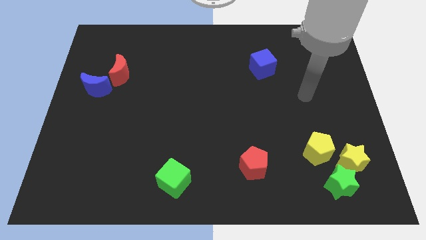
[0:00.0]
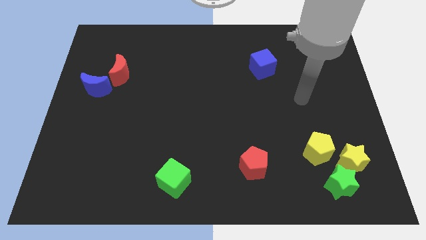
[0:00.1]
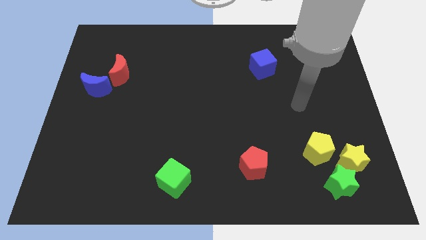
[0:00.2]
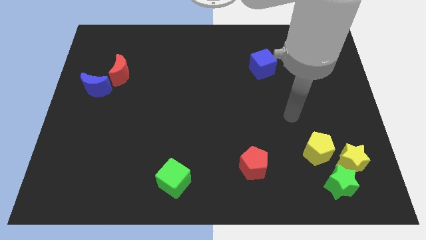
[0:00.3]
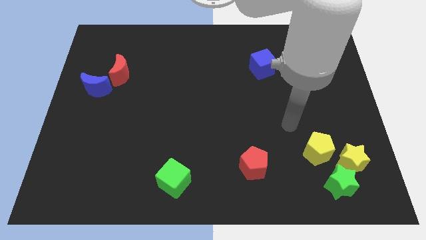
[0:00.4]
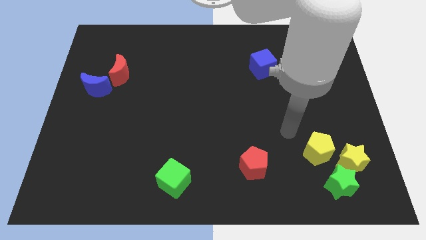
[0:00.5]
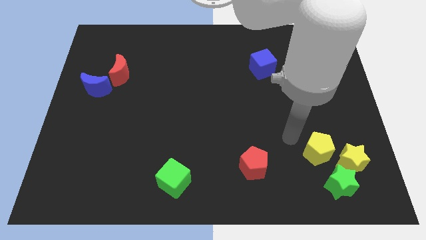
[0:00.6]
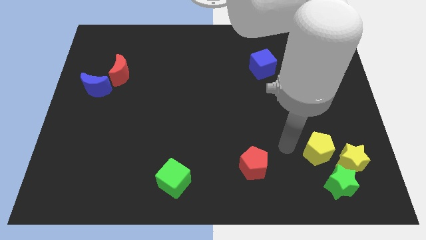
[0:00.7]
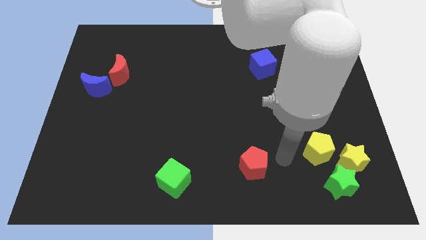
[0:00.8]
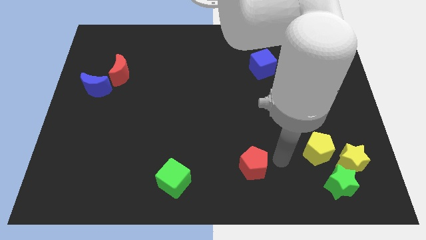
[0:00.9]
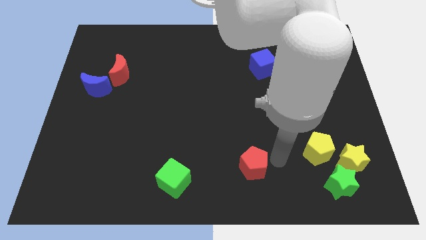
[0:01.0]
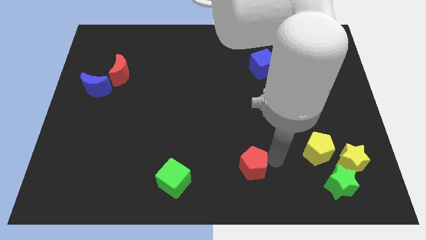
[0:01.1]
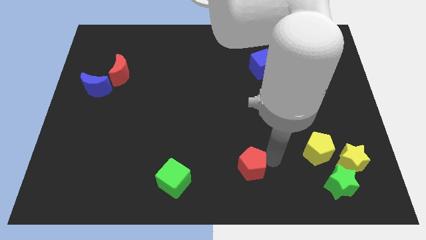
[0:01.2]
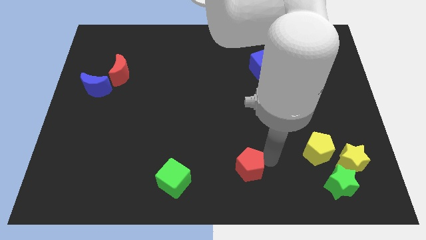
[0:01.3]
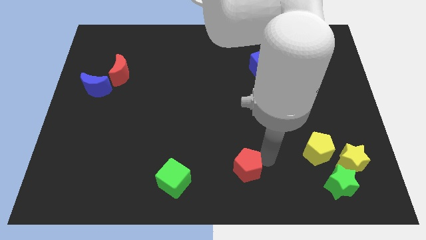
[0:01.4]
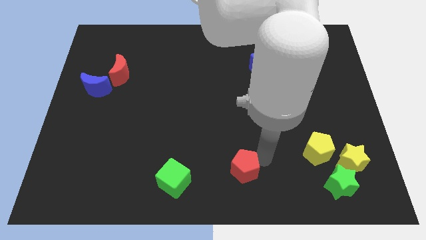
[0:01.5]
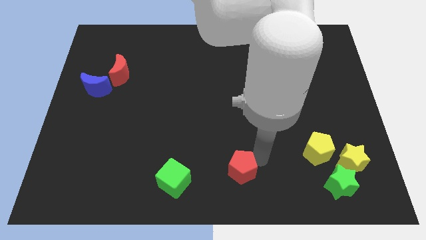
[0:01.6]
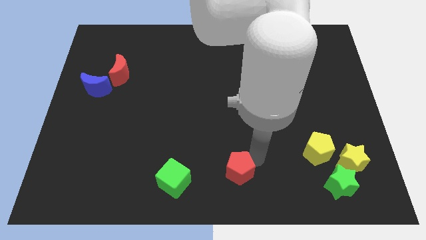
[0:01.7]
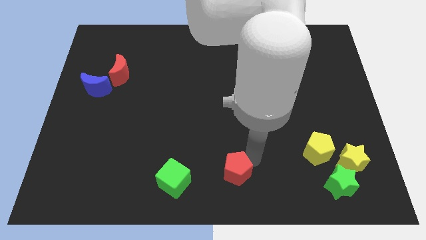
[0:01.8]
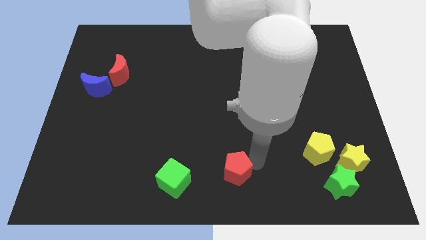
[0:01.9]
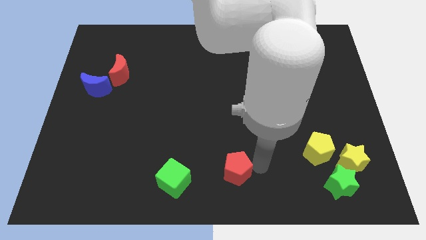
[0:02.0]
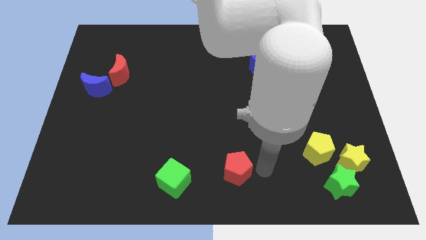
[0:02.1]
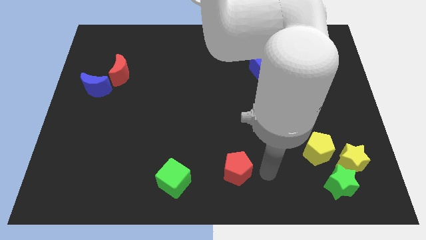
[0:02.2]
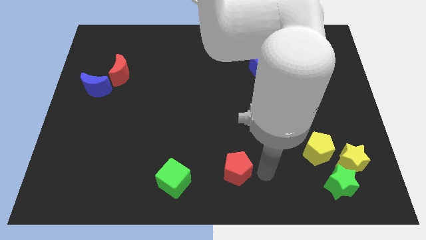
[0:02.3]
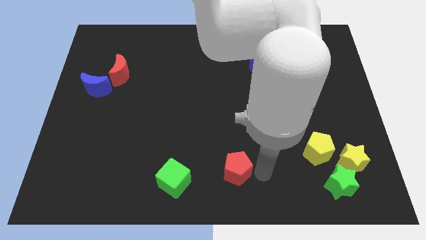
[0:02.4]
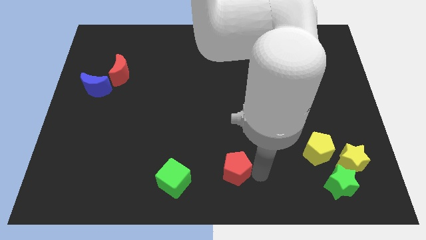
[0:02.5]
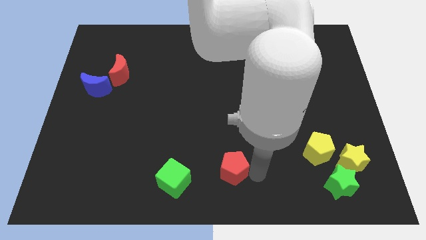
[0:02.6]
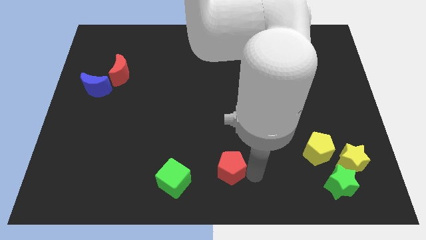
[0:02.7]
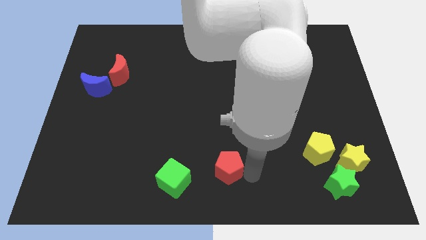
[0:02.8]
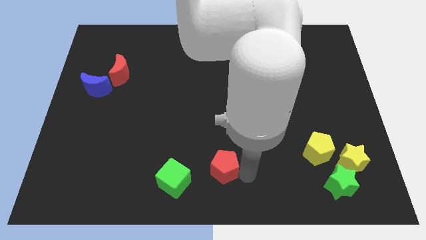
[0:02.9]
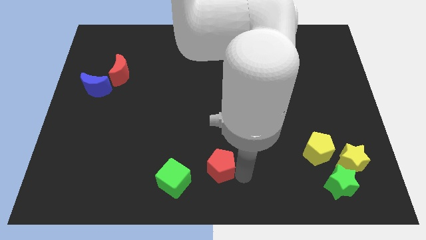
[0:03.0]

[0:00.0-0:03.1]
slide the red pentagon to the left a little

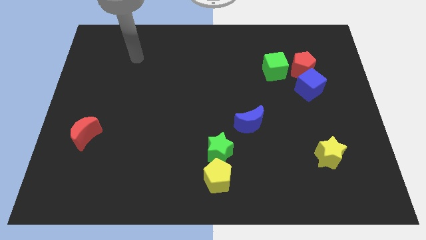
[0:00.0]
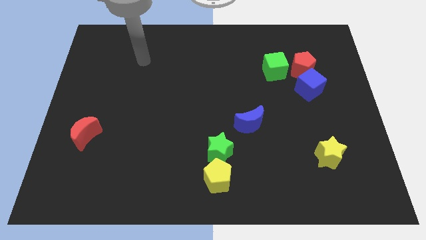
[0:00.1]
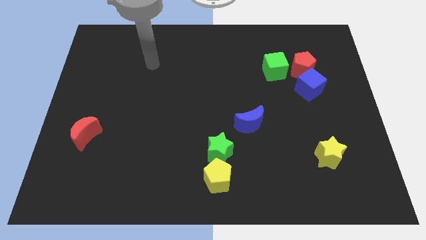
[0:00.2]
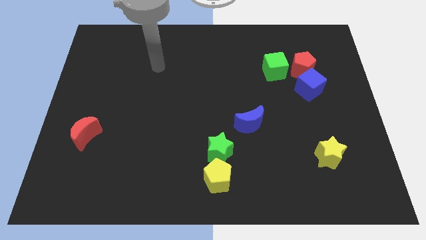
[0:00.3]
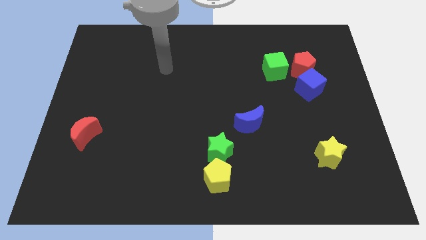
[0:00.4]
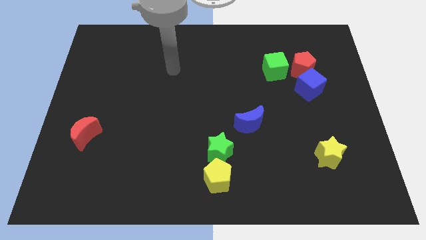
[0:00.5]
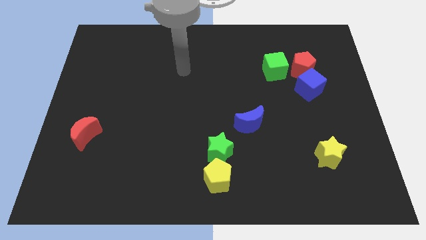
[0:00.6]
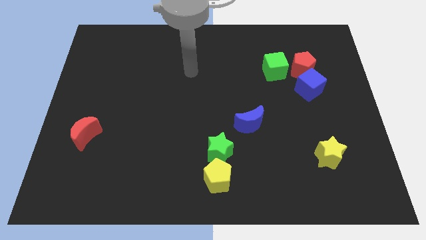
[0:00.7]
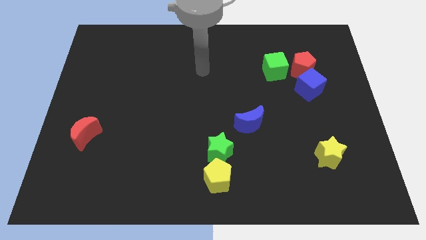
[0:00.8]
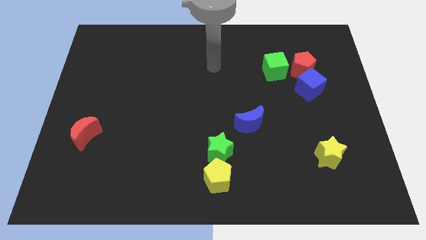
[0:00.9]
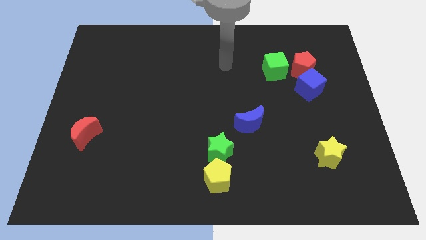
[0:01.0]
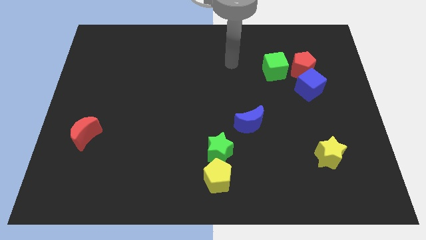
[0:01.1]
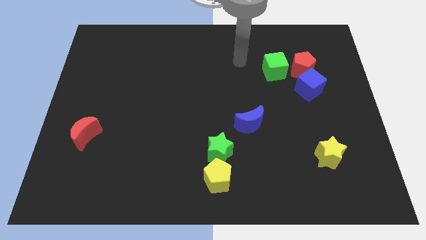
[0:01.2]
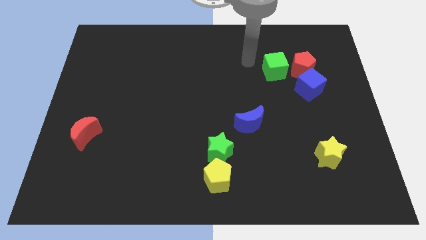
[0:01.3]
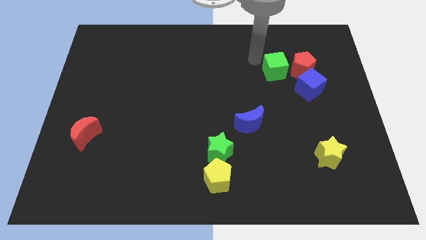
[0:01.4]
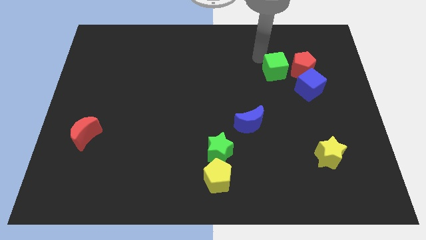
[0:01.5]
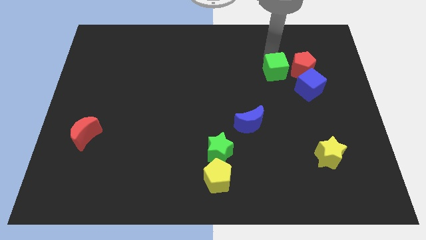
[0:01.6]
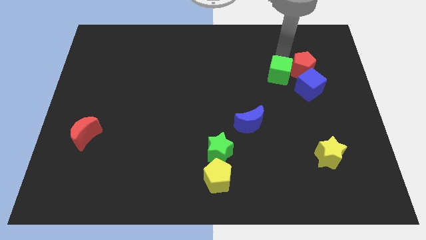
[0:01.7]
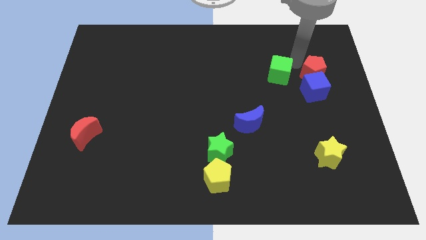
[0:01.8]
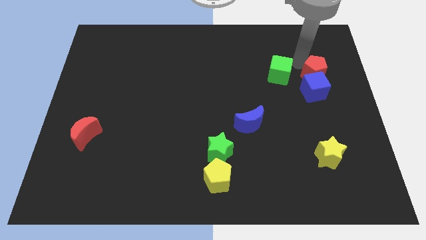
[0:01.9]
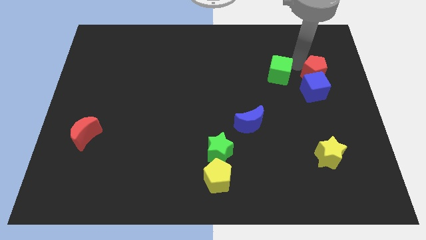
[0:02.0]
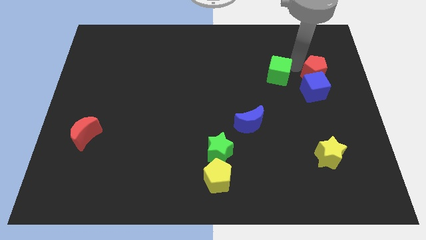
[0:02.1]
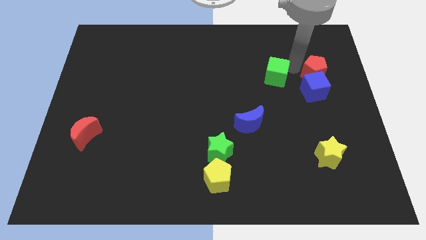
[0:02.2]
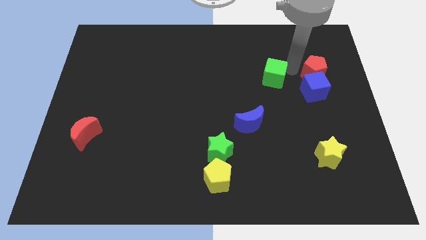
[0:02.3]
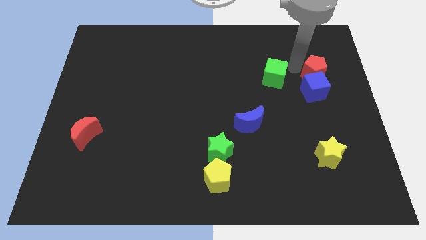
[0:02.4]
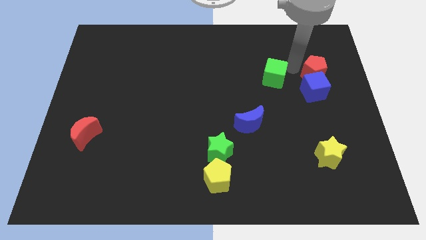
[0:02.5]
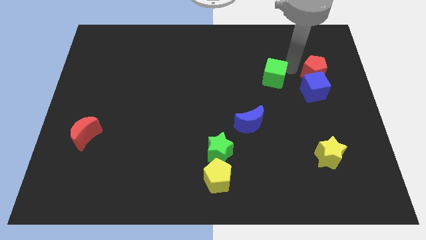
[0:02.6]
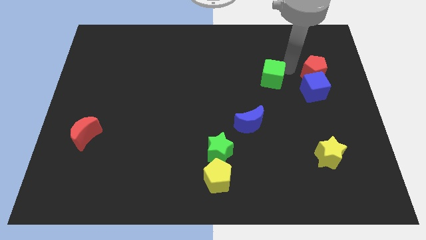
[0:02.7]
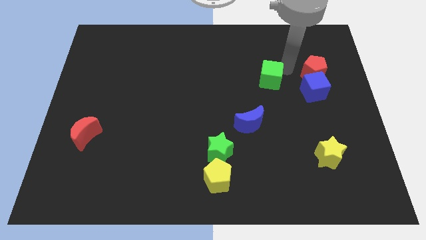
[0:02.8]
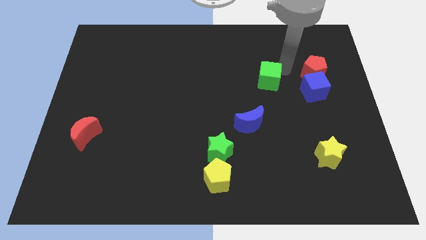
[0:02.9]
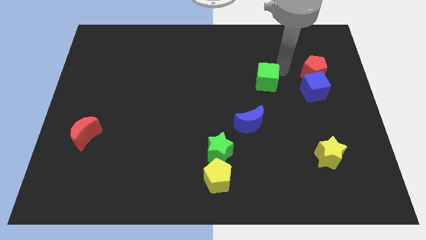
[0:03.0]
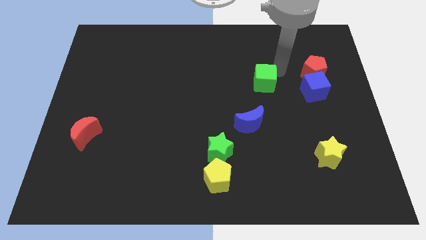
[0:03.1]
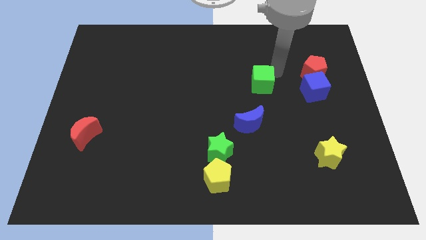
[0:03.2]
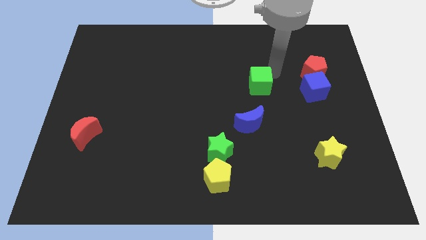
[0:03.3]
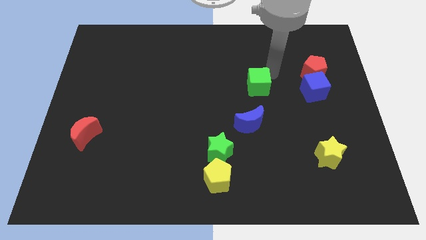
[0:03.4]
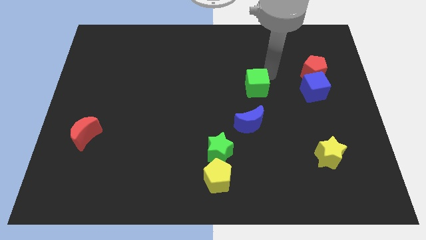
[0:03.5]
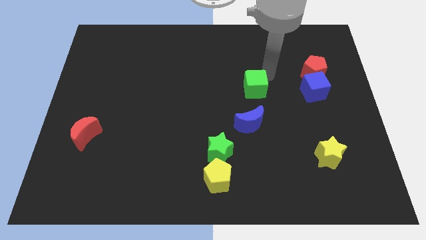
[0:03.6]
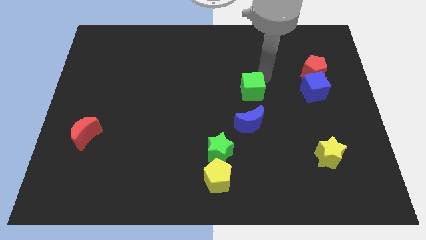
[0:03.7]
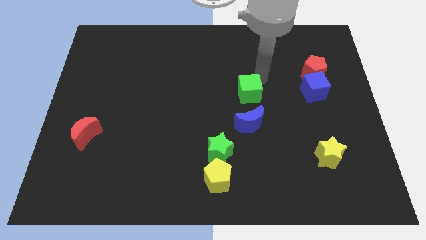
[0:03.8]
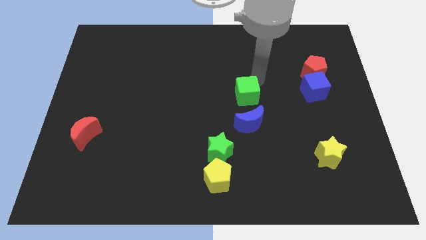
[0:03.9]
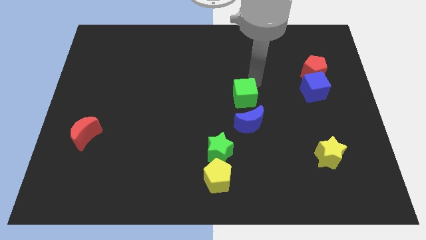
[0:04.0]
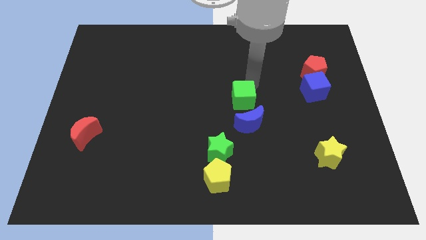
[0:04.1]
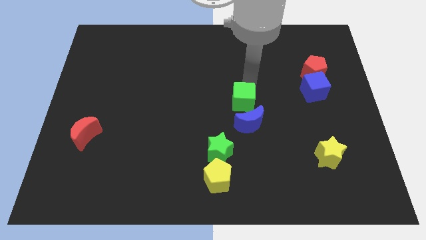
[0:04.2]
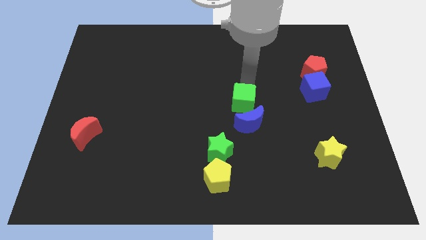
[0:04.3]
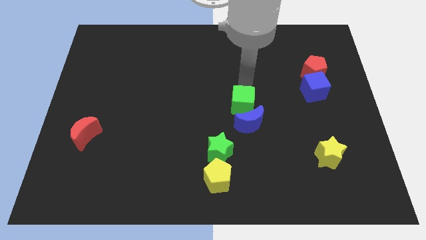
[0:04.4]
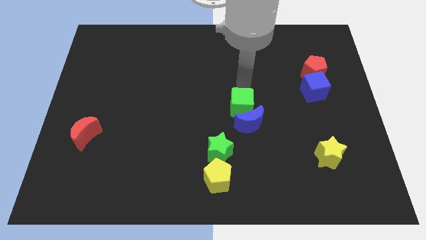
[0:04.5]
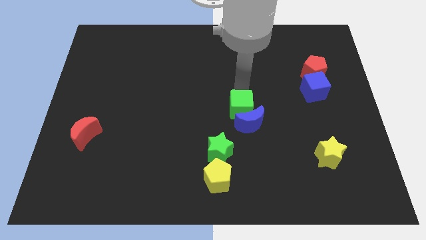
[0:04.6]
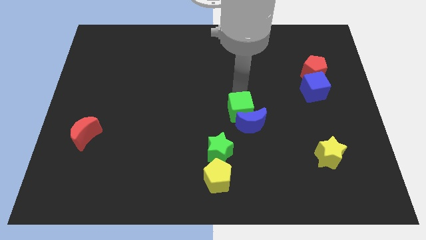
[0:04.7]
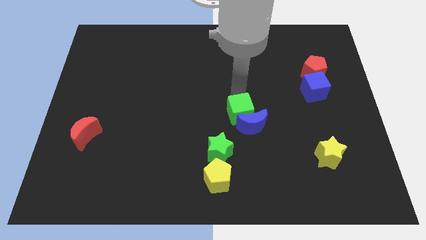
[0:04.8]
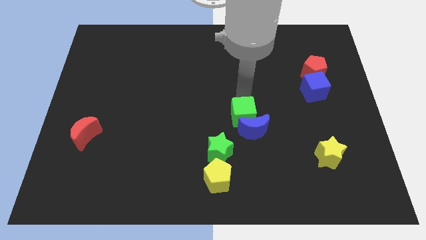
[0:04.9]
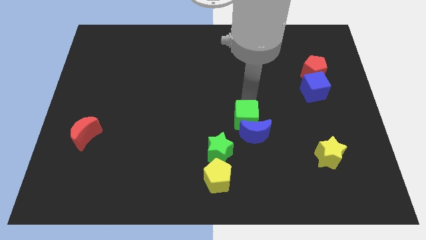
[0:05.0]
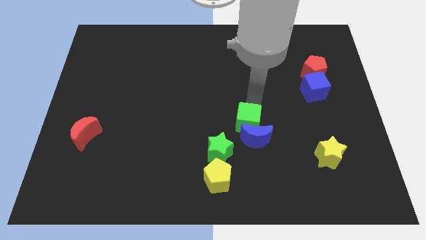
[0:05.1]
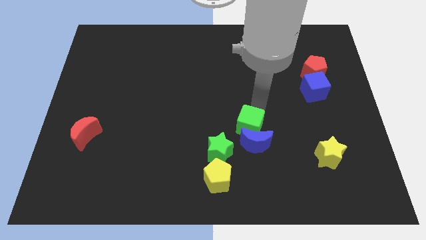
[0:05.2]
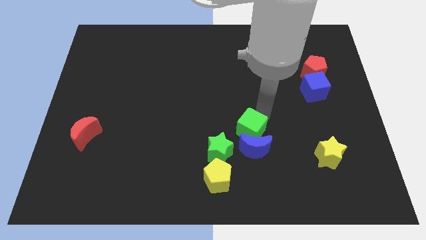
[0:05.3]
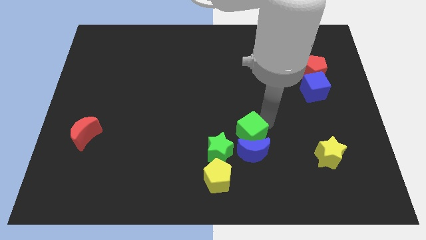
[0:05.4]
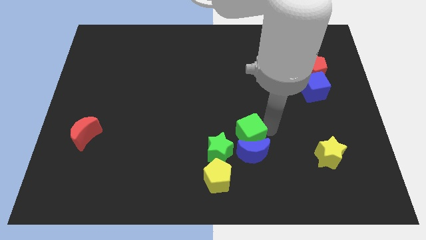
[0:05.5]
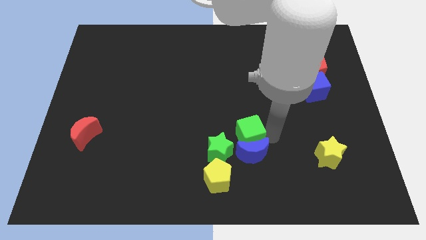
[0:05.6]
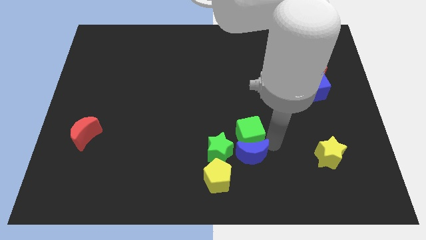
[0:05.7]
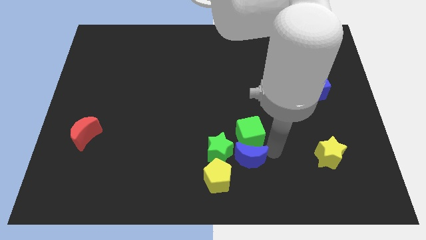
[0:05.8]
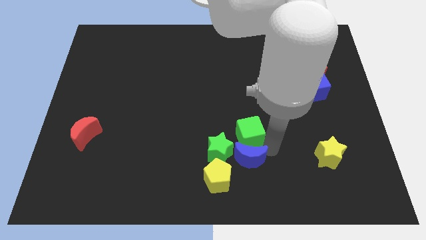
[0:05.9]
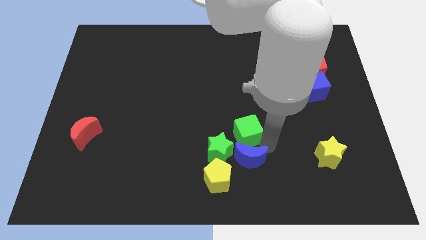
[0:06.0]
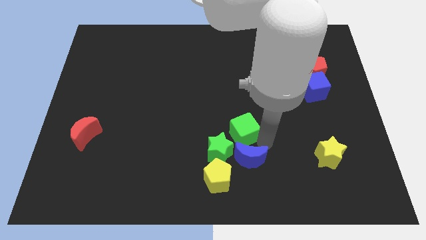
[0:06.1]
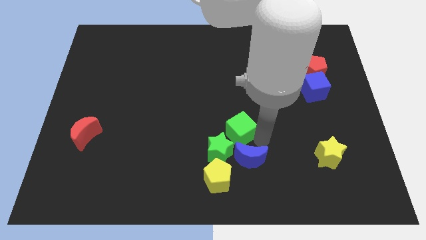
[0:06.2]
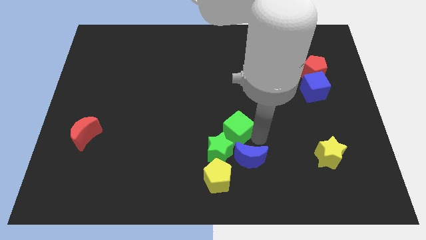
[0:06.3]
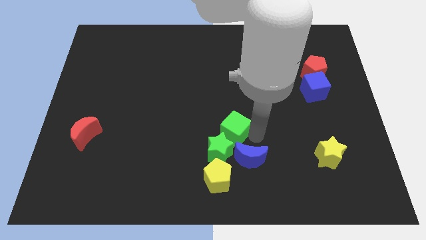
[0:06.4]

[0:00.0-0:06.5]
push the green cube down and to the left diagonally
